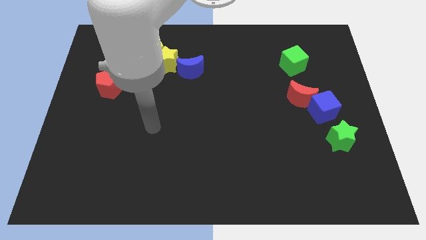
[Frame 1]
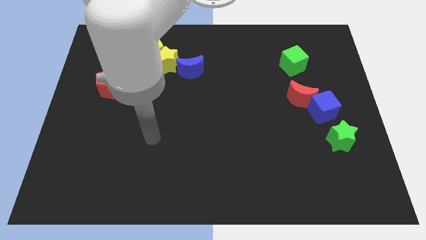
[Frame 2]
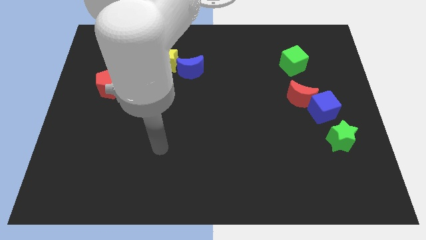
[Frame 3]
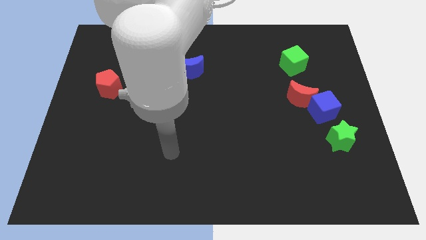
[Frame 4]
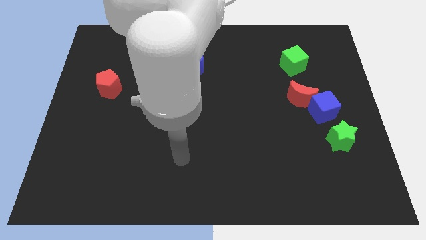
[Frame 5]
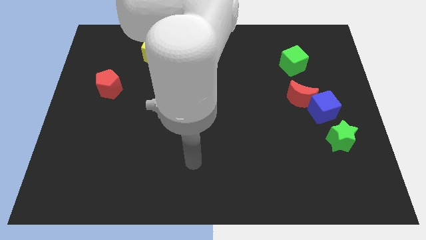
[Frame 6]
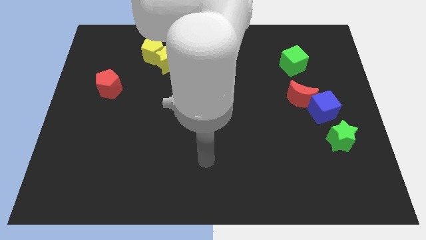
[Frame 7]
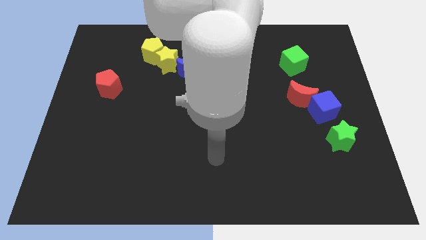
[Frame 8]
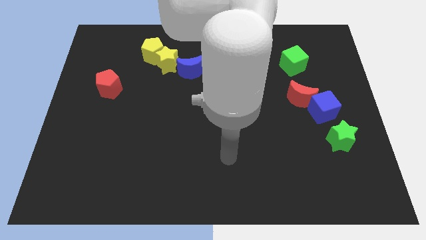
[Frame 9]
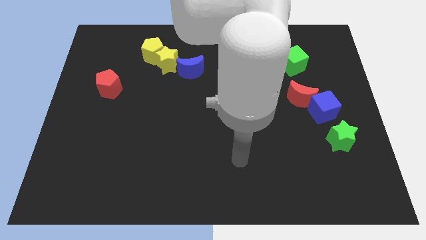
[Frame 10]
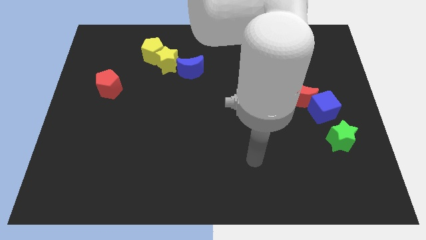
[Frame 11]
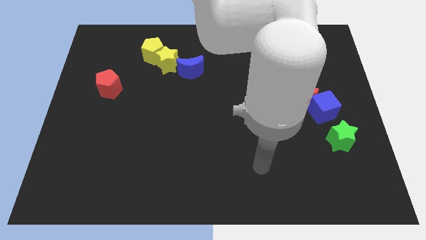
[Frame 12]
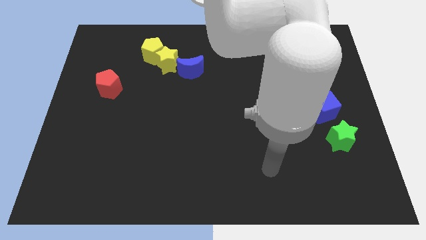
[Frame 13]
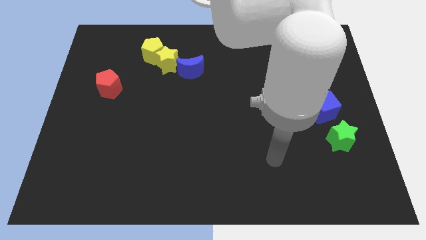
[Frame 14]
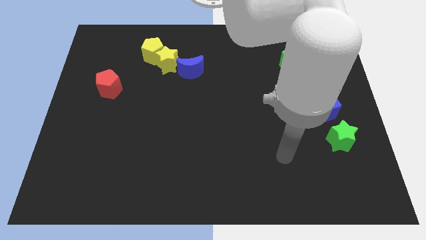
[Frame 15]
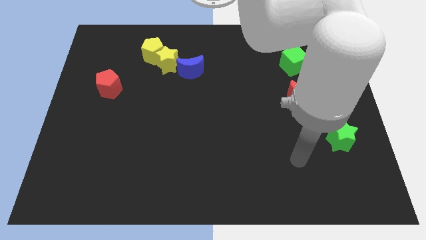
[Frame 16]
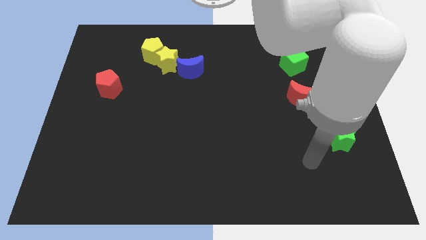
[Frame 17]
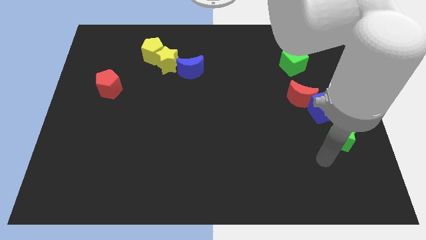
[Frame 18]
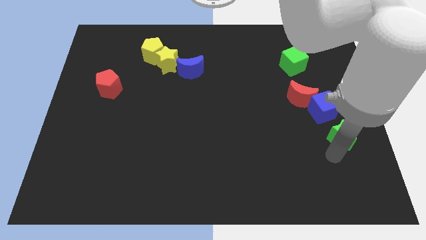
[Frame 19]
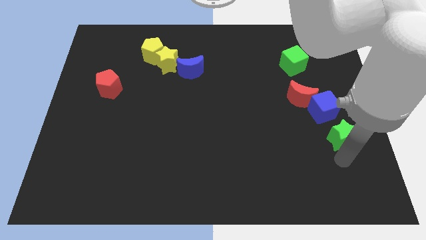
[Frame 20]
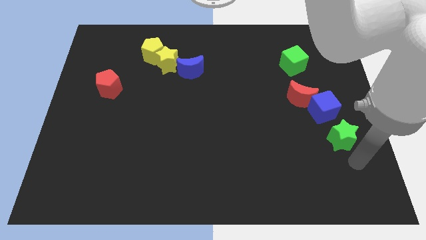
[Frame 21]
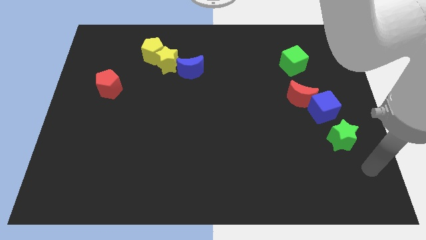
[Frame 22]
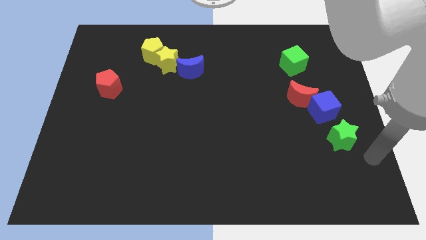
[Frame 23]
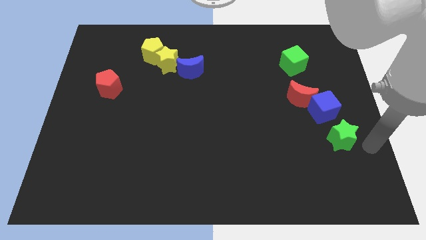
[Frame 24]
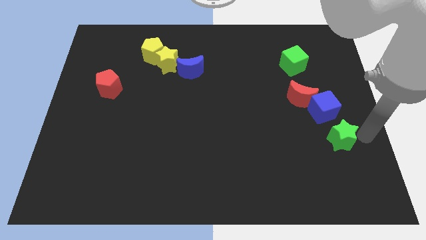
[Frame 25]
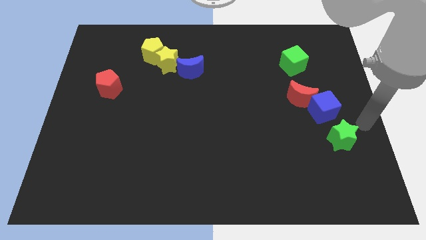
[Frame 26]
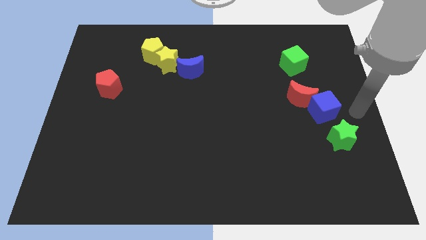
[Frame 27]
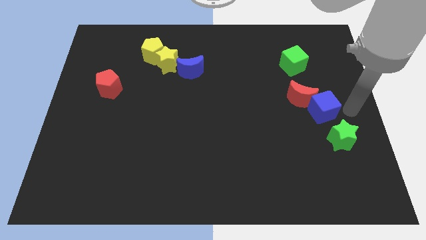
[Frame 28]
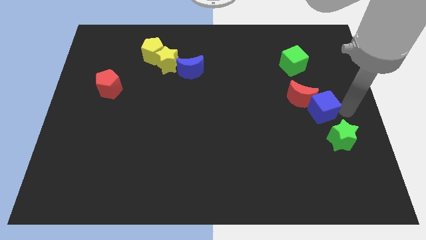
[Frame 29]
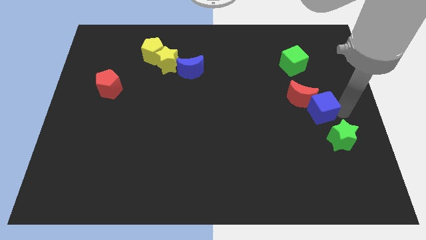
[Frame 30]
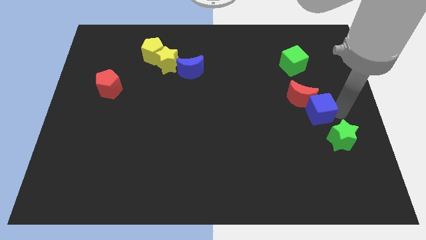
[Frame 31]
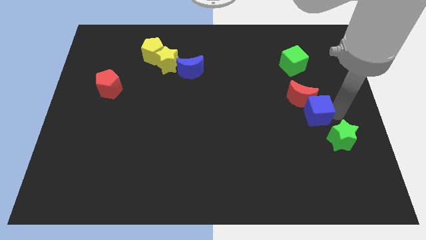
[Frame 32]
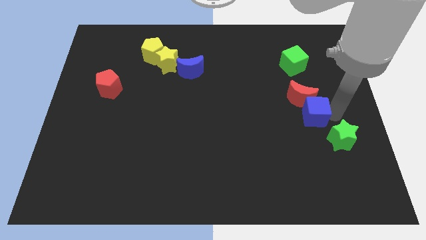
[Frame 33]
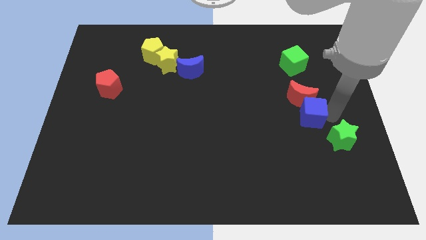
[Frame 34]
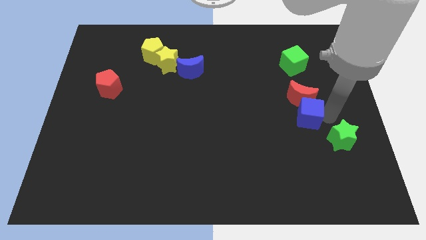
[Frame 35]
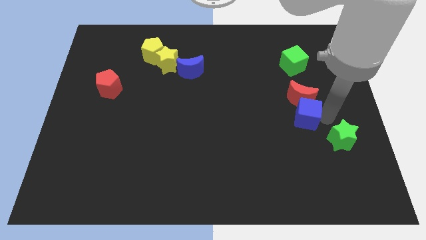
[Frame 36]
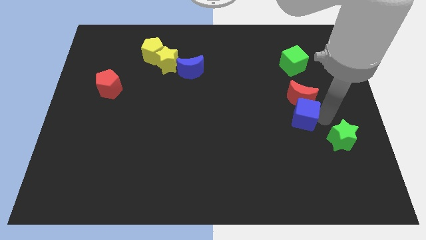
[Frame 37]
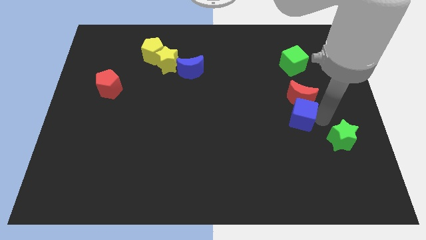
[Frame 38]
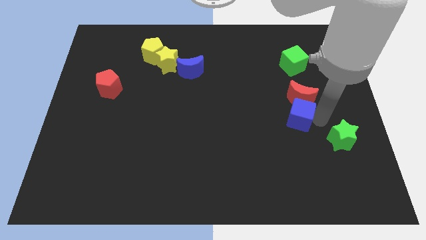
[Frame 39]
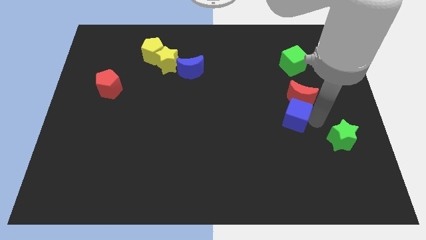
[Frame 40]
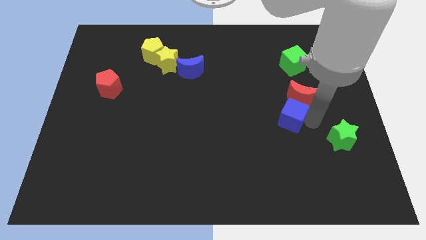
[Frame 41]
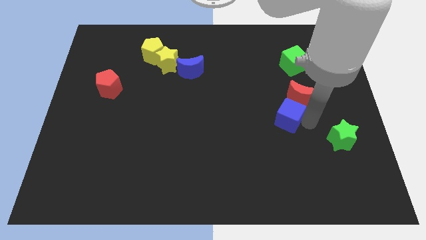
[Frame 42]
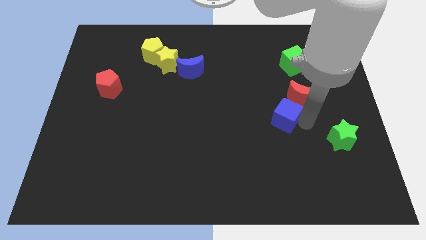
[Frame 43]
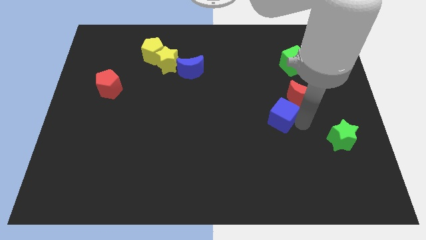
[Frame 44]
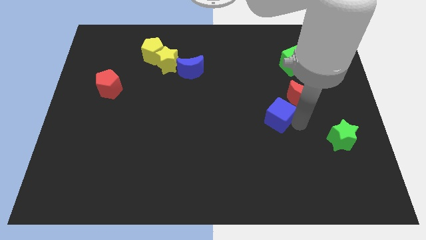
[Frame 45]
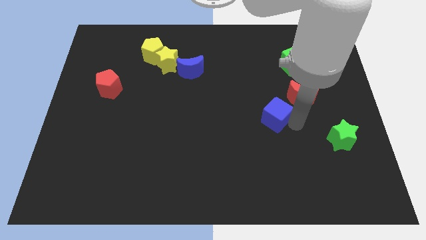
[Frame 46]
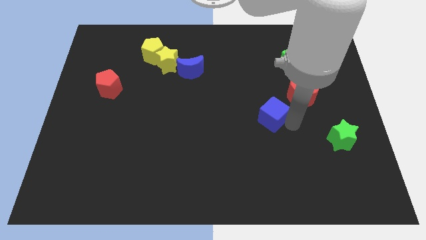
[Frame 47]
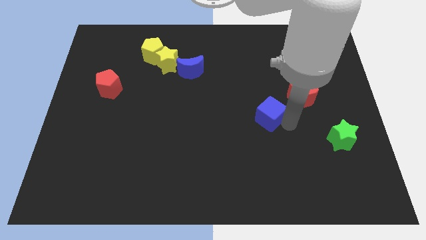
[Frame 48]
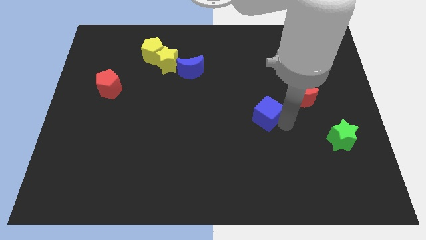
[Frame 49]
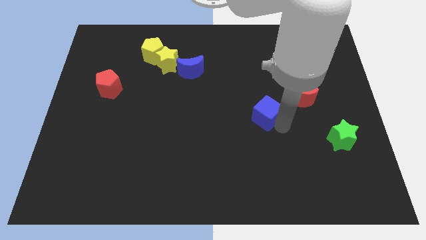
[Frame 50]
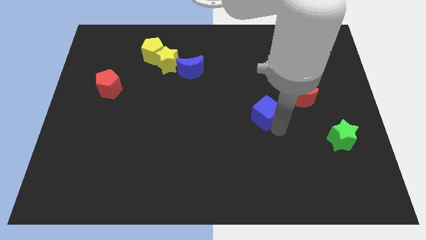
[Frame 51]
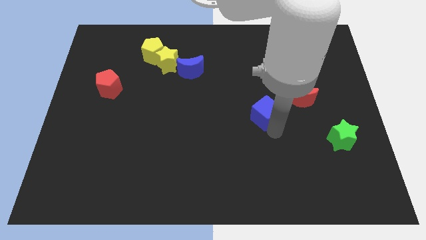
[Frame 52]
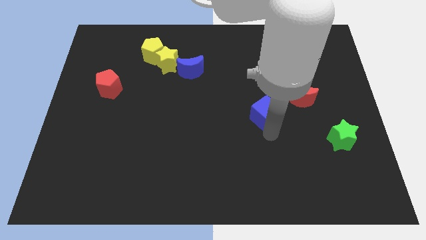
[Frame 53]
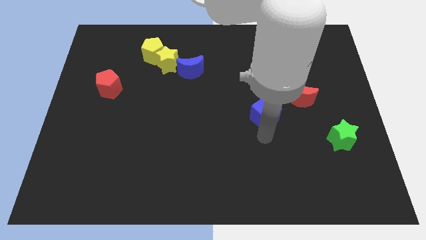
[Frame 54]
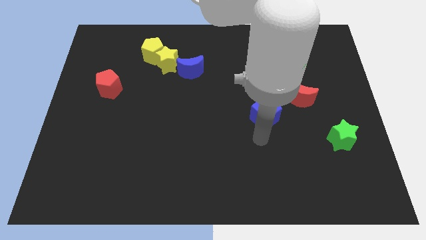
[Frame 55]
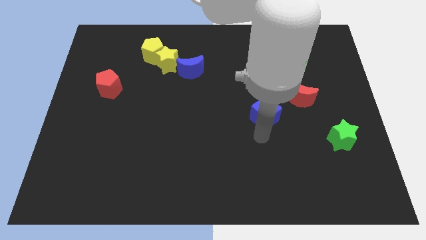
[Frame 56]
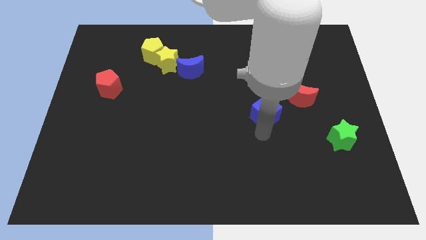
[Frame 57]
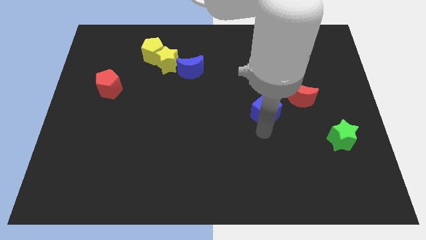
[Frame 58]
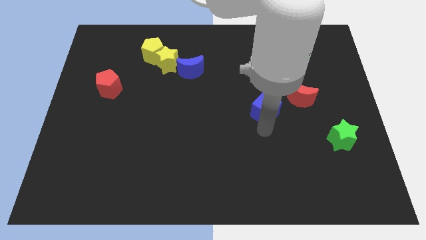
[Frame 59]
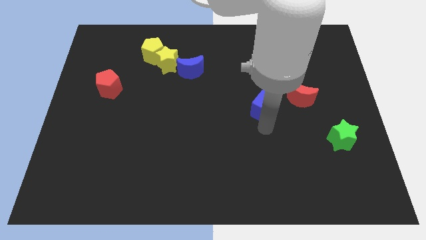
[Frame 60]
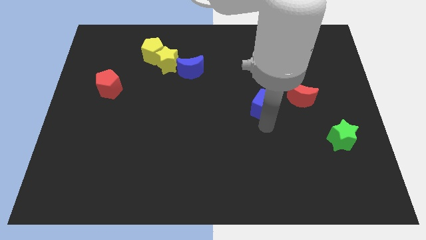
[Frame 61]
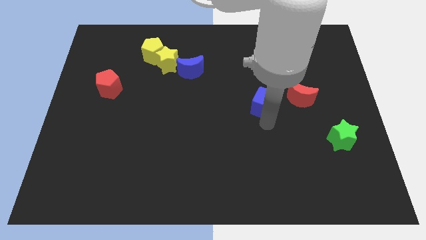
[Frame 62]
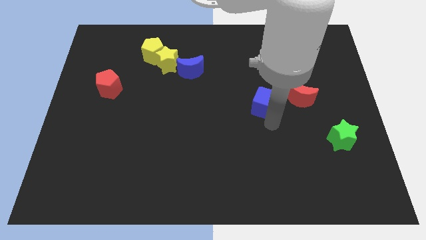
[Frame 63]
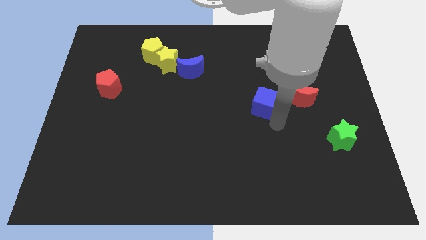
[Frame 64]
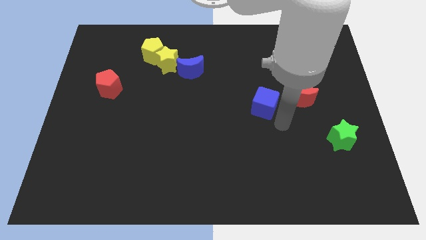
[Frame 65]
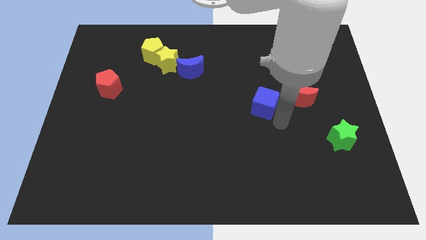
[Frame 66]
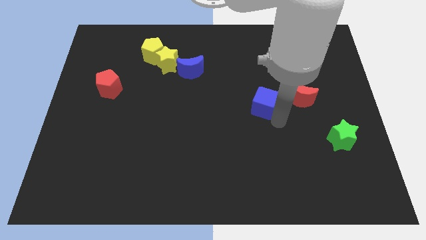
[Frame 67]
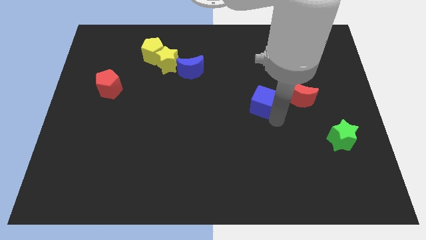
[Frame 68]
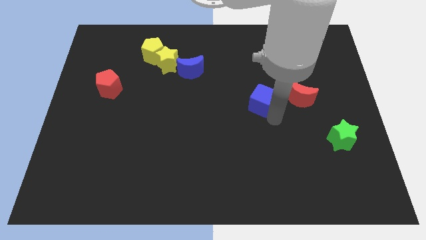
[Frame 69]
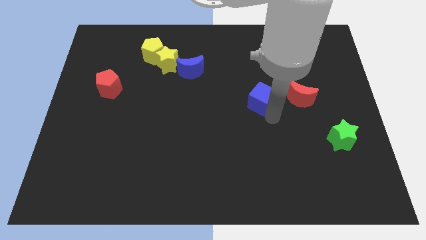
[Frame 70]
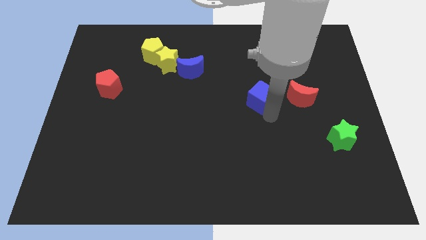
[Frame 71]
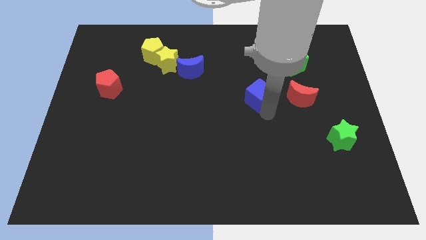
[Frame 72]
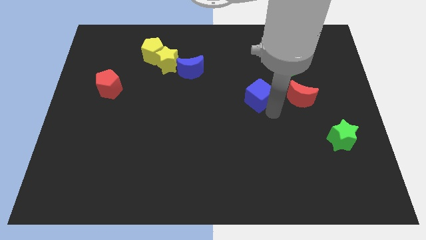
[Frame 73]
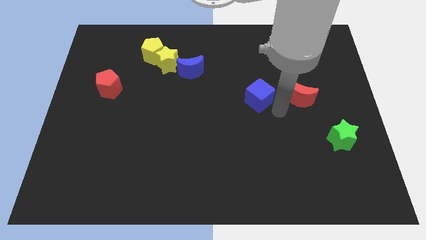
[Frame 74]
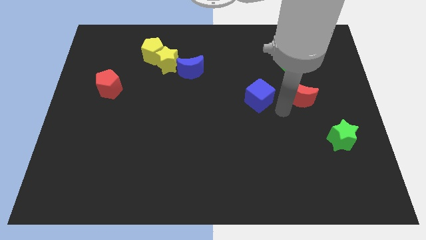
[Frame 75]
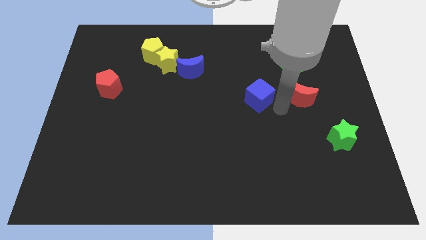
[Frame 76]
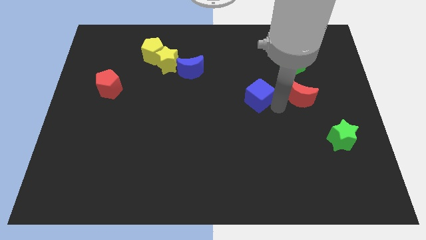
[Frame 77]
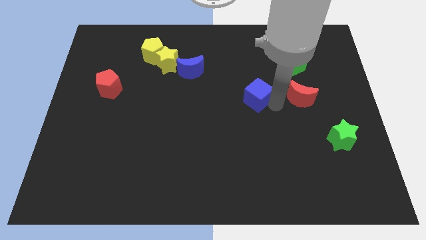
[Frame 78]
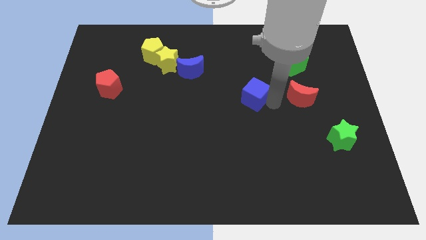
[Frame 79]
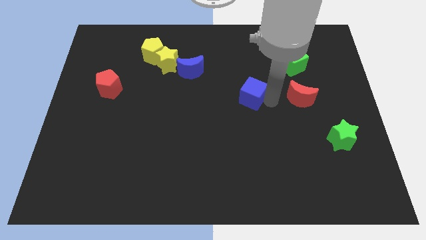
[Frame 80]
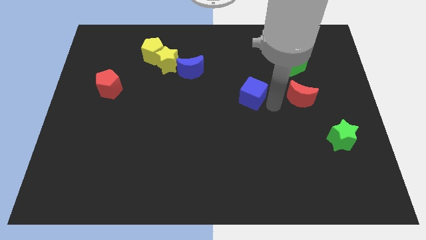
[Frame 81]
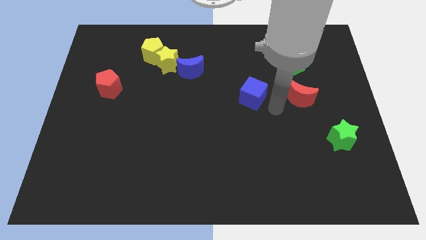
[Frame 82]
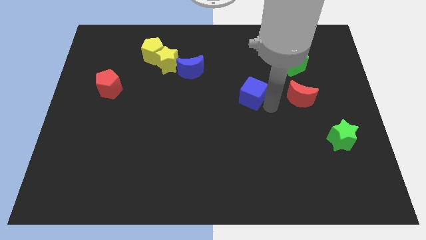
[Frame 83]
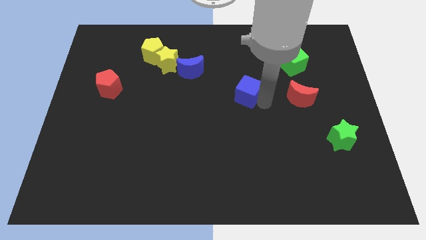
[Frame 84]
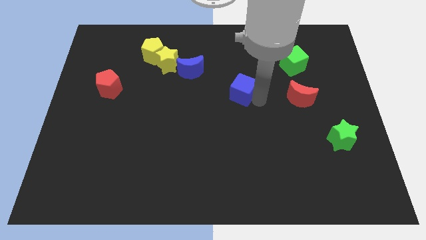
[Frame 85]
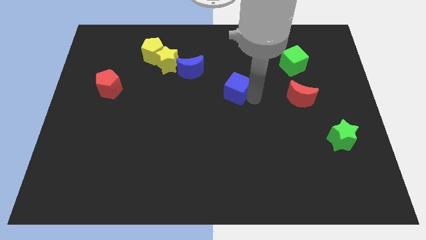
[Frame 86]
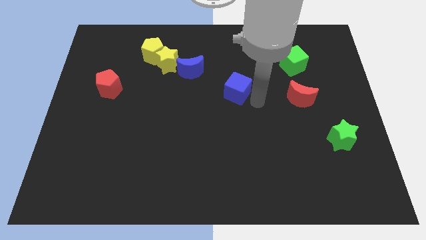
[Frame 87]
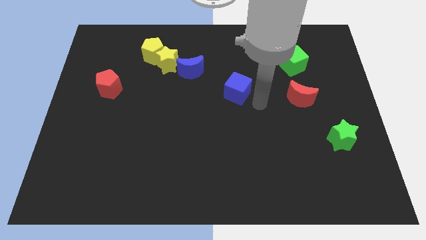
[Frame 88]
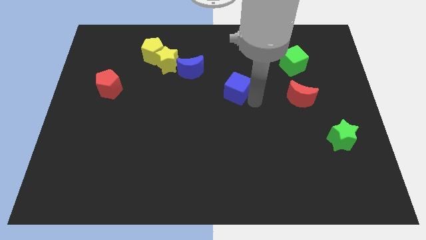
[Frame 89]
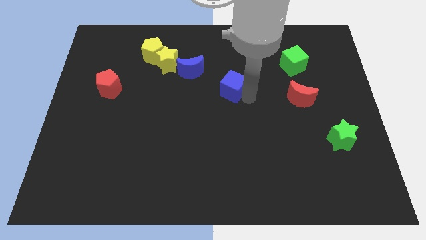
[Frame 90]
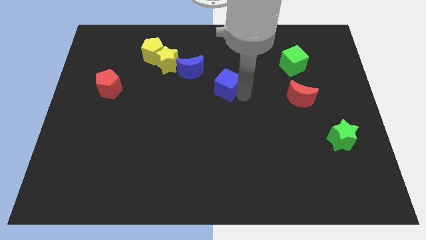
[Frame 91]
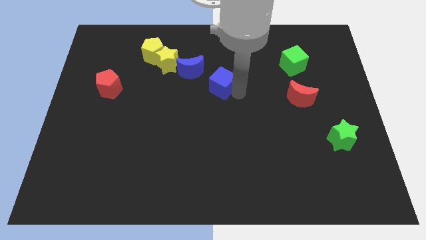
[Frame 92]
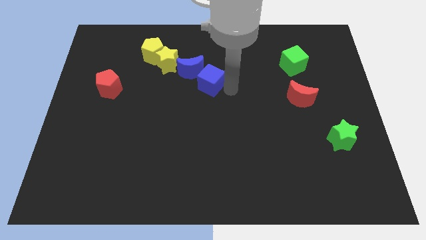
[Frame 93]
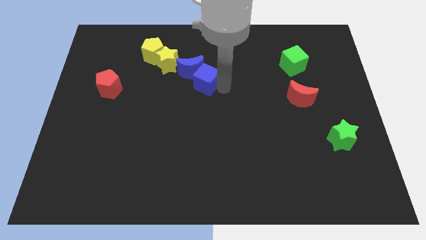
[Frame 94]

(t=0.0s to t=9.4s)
push the blue cube towards the blue moon
